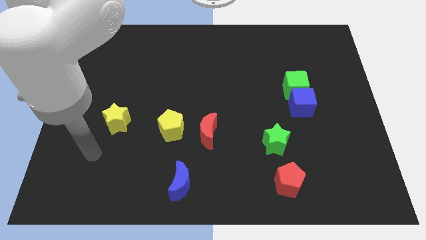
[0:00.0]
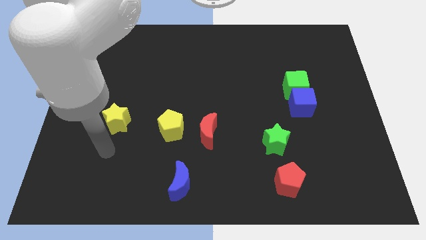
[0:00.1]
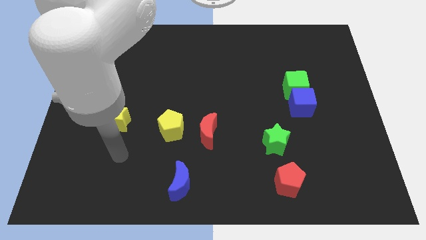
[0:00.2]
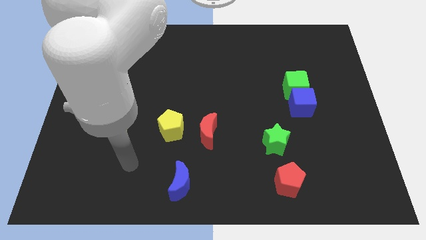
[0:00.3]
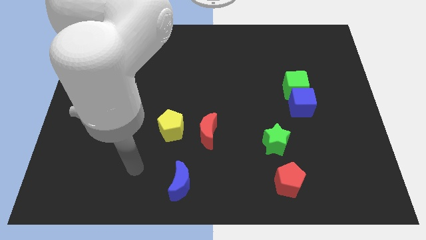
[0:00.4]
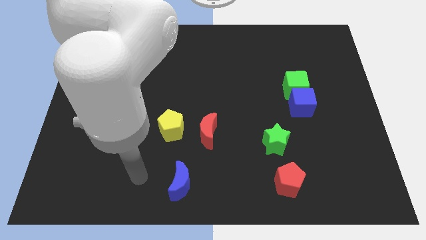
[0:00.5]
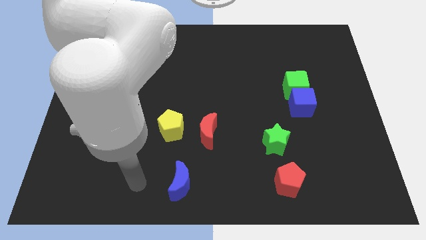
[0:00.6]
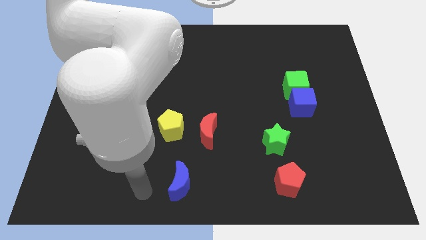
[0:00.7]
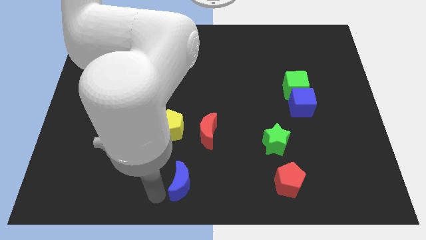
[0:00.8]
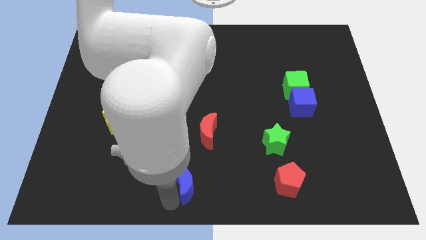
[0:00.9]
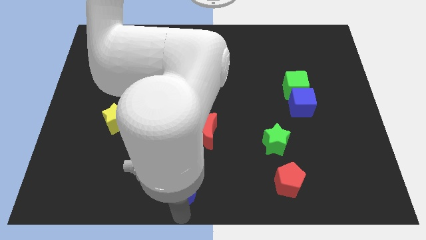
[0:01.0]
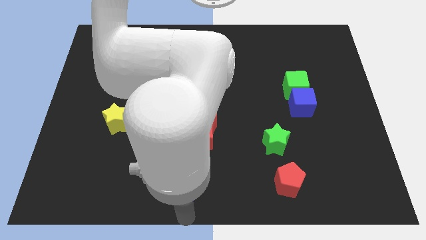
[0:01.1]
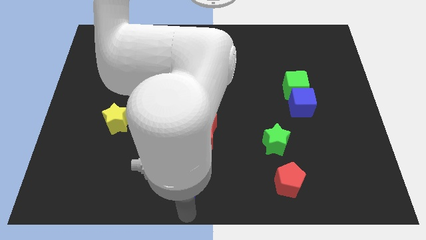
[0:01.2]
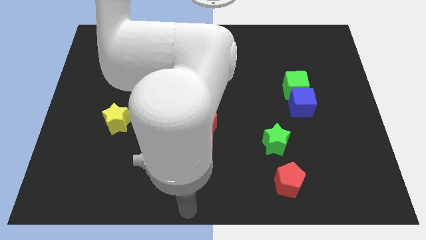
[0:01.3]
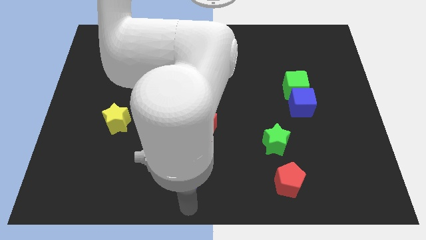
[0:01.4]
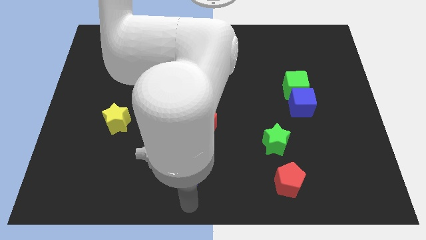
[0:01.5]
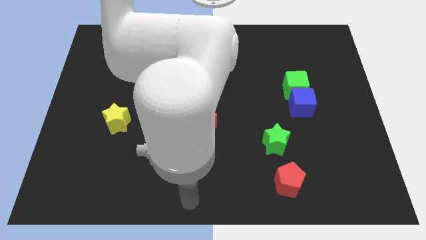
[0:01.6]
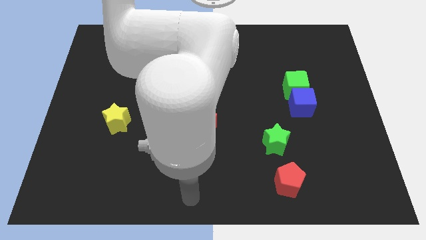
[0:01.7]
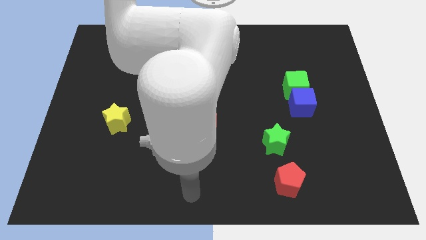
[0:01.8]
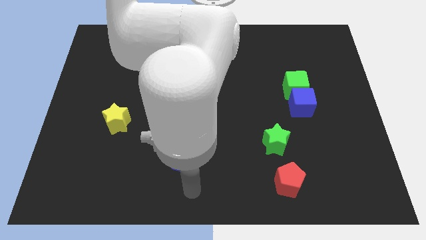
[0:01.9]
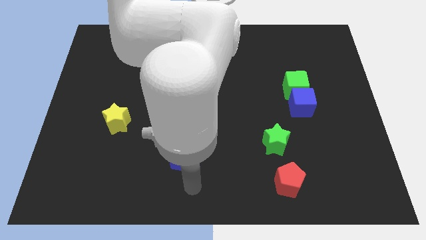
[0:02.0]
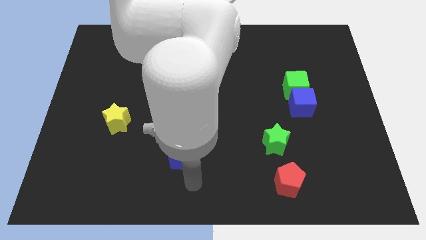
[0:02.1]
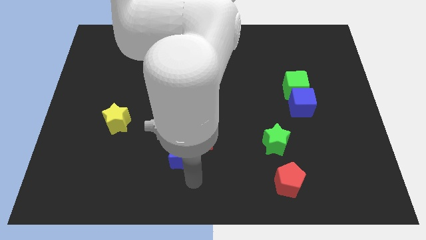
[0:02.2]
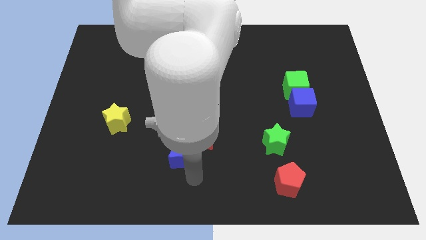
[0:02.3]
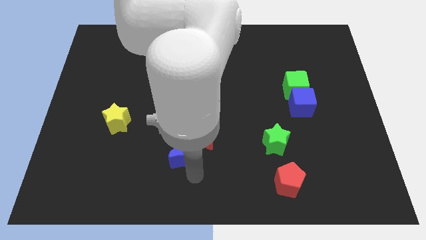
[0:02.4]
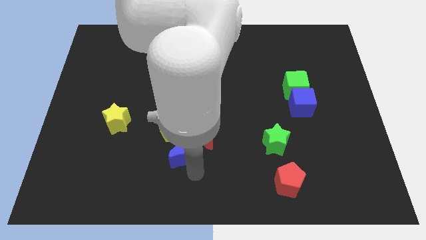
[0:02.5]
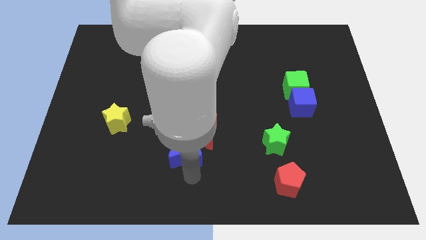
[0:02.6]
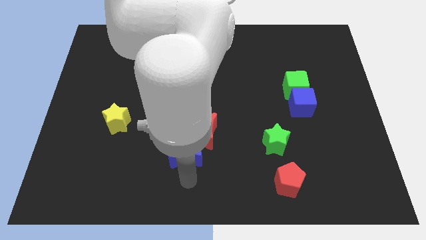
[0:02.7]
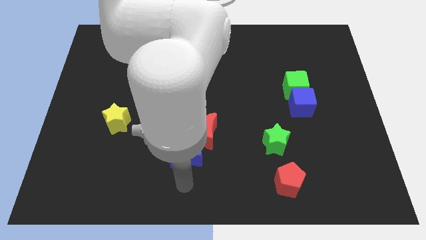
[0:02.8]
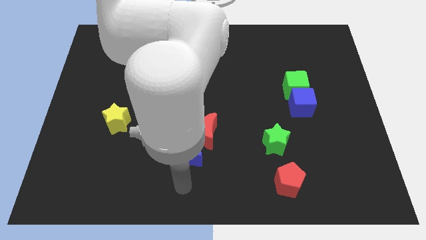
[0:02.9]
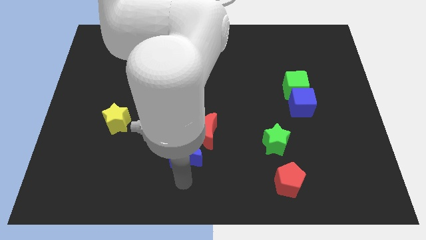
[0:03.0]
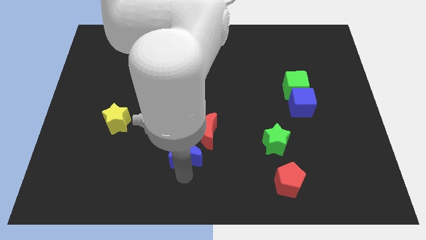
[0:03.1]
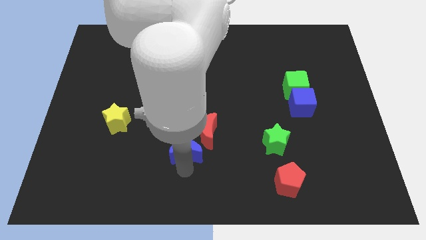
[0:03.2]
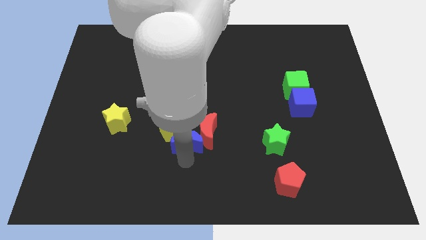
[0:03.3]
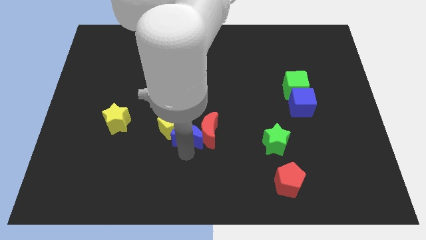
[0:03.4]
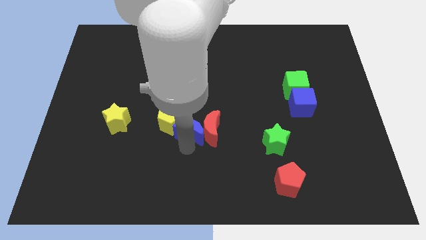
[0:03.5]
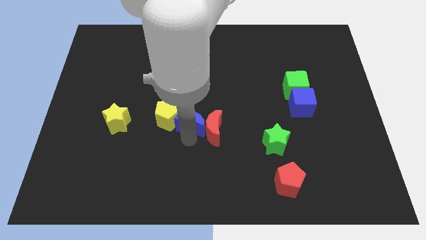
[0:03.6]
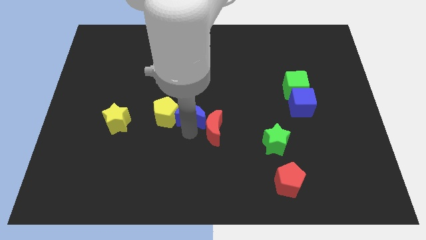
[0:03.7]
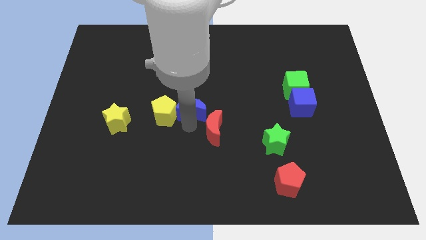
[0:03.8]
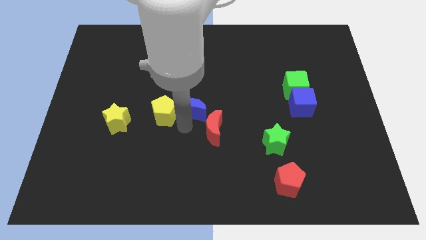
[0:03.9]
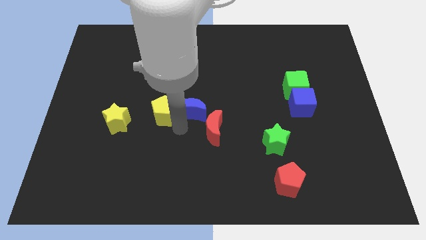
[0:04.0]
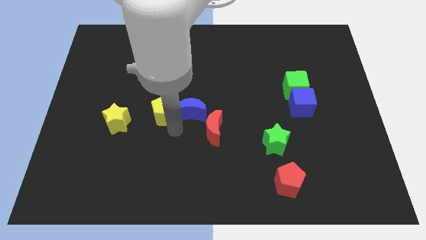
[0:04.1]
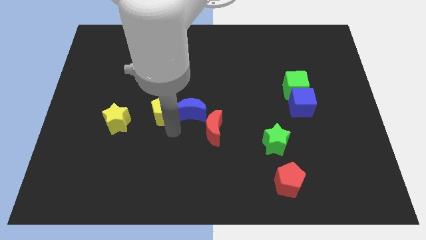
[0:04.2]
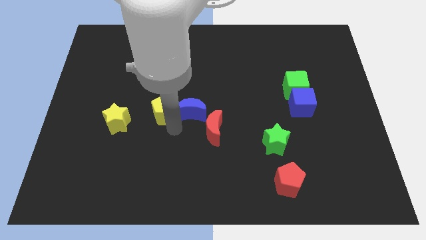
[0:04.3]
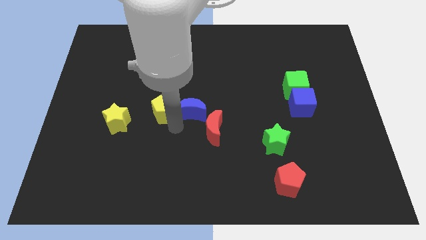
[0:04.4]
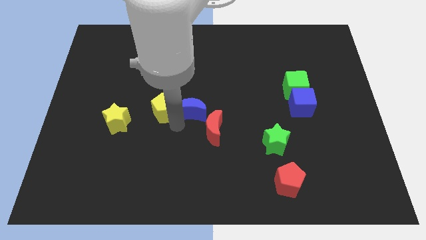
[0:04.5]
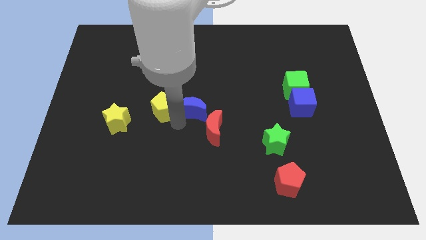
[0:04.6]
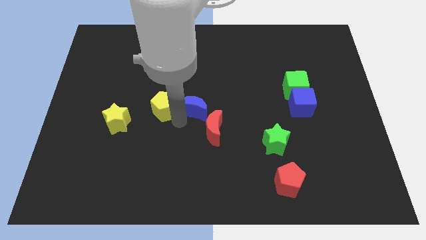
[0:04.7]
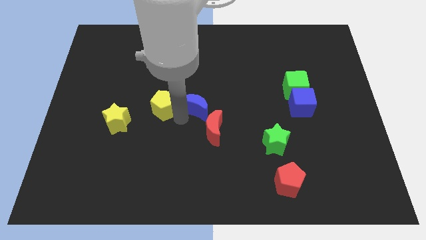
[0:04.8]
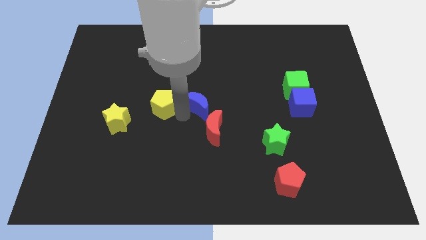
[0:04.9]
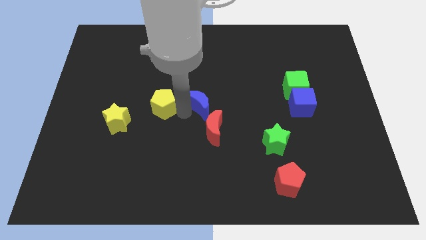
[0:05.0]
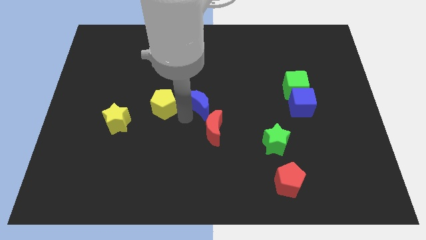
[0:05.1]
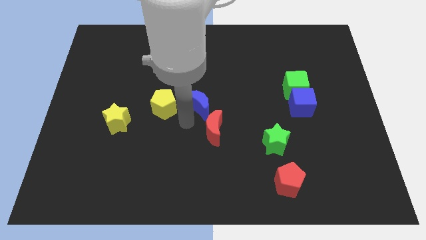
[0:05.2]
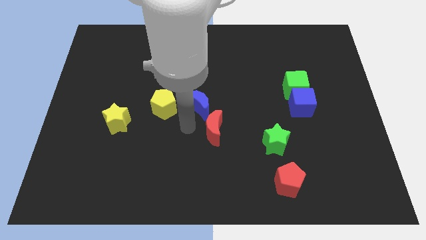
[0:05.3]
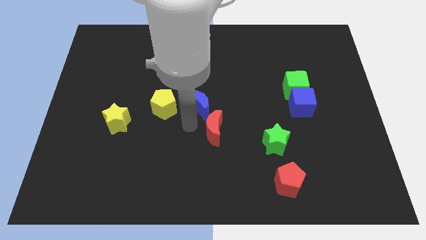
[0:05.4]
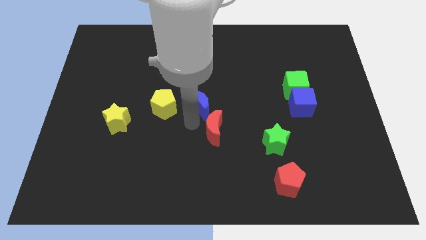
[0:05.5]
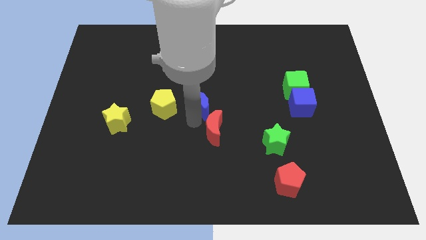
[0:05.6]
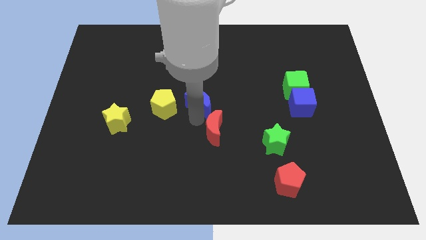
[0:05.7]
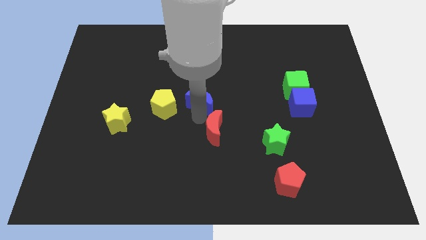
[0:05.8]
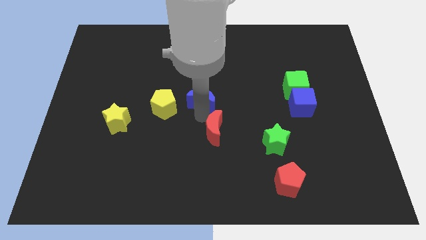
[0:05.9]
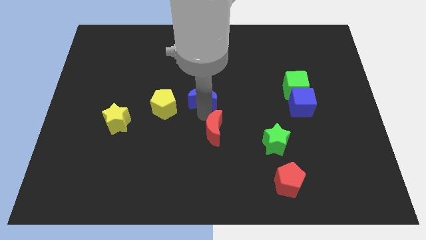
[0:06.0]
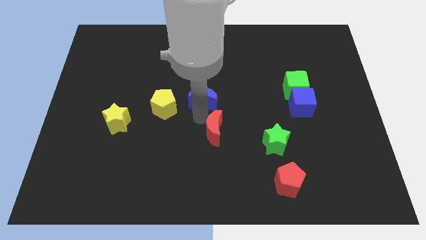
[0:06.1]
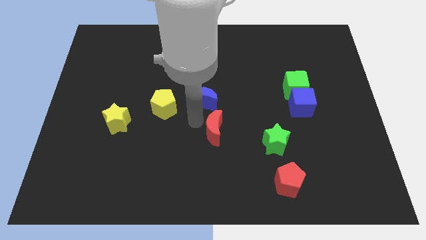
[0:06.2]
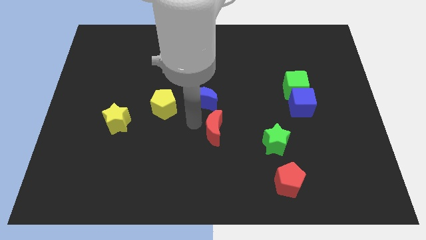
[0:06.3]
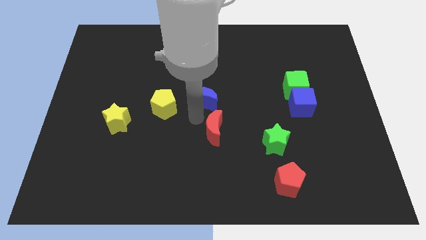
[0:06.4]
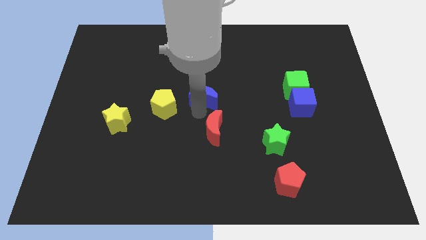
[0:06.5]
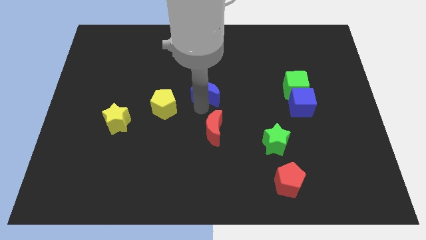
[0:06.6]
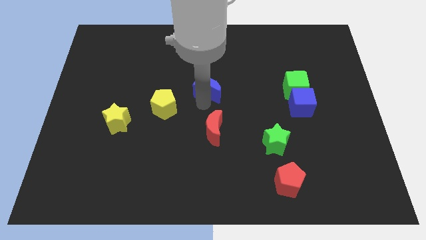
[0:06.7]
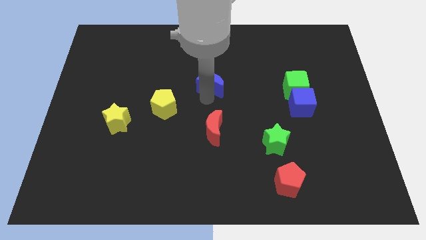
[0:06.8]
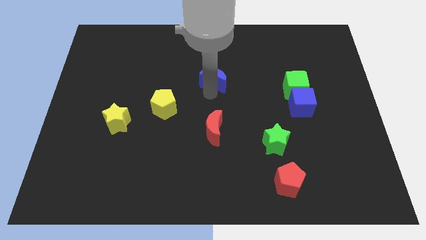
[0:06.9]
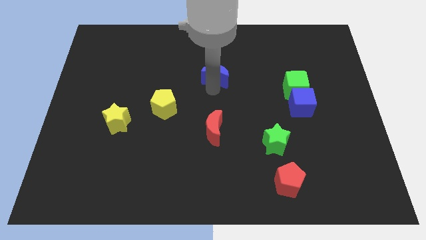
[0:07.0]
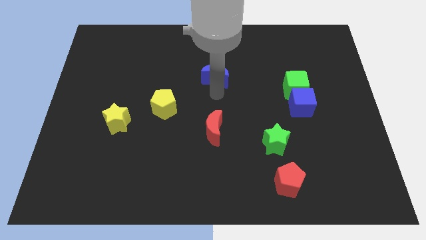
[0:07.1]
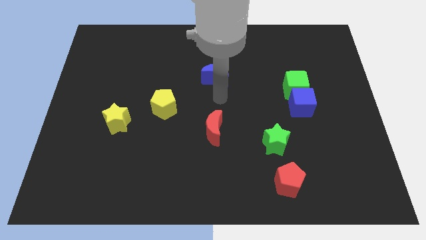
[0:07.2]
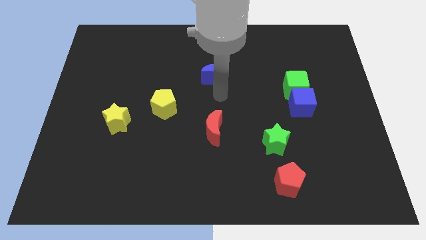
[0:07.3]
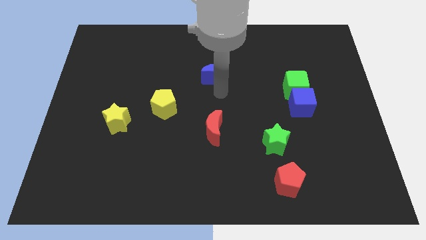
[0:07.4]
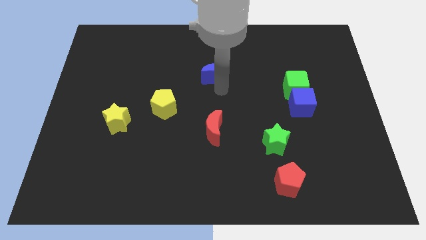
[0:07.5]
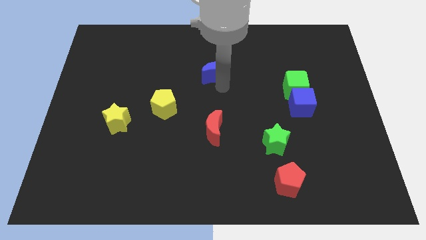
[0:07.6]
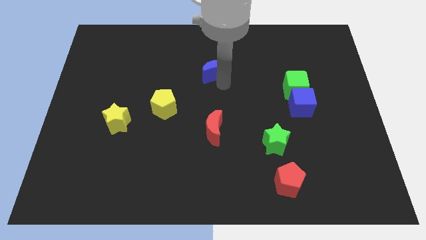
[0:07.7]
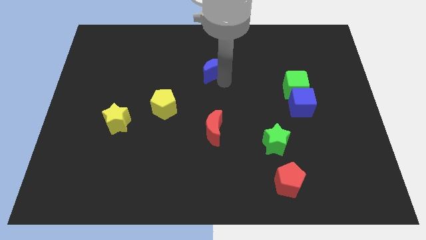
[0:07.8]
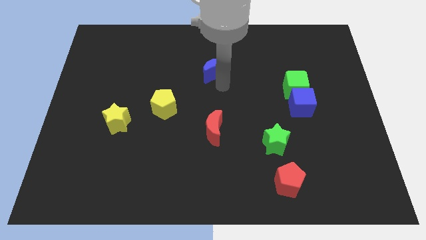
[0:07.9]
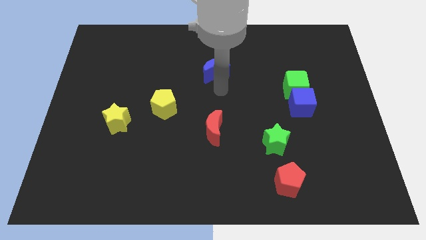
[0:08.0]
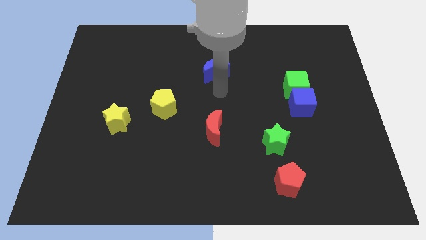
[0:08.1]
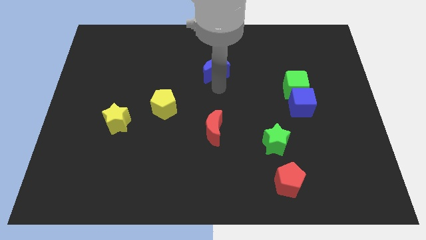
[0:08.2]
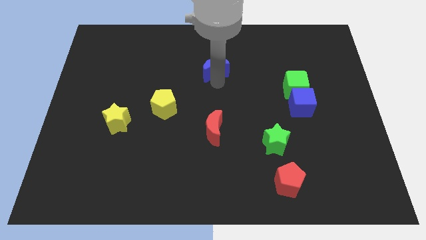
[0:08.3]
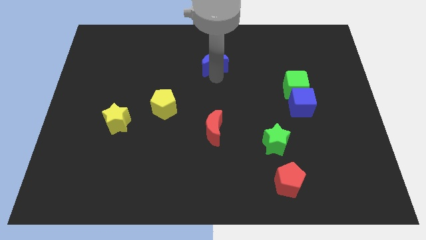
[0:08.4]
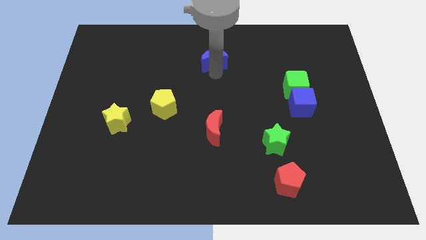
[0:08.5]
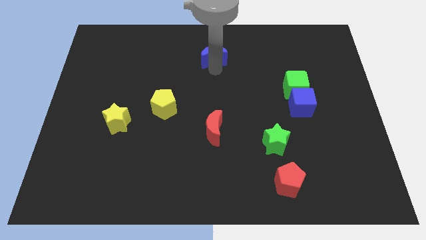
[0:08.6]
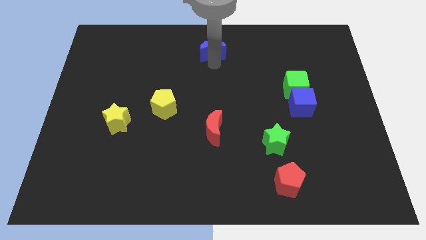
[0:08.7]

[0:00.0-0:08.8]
move the blue moon to the towards your base
